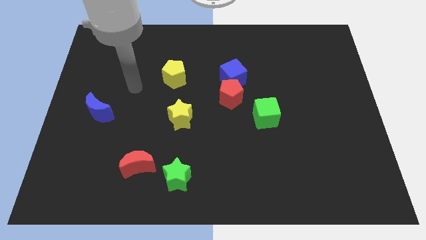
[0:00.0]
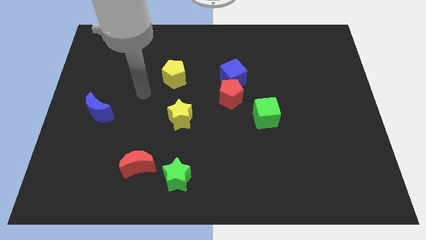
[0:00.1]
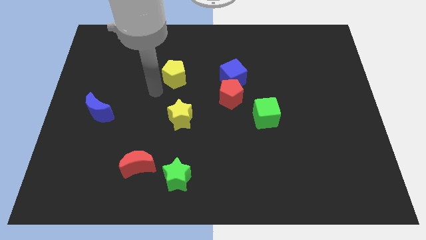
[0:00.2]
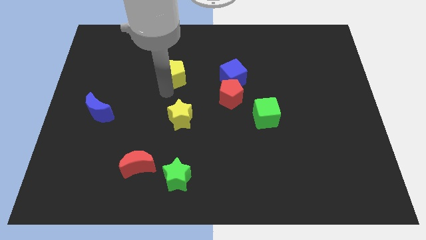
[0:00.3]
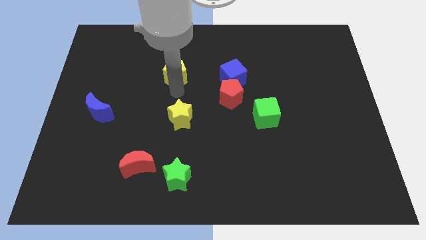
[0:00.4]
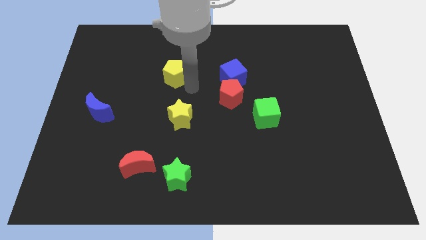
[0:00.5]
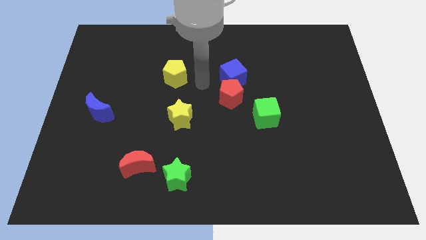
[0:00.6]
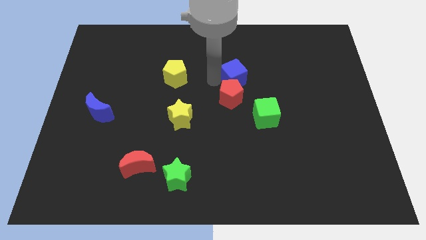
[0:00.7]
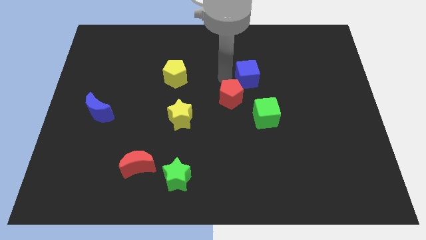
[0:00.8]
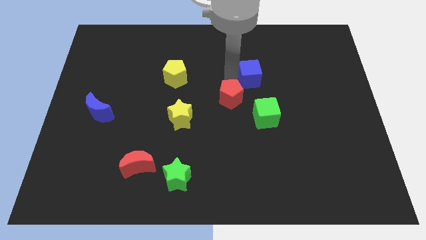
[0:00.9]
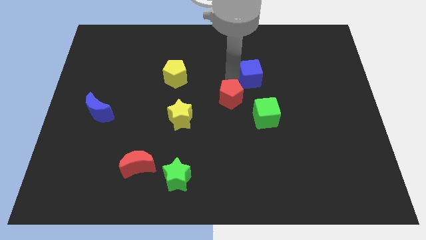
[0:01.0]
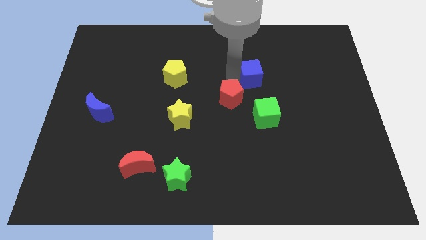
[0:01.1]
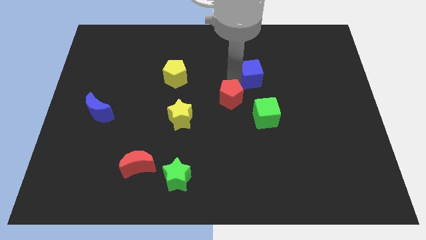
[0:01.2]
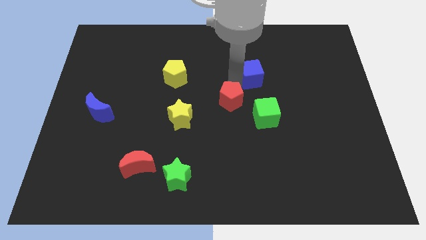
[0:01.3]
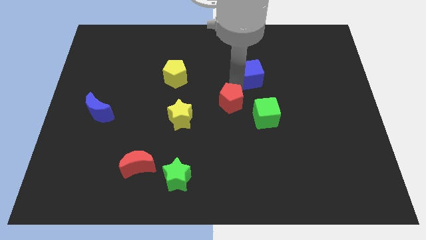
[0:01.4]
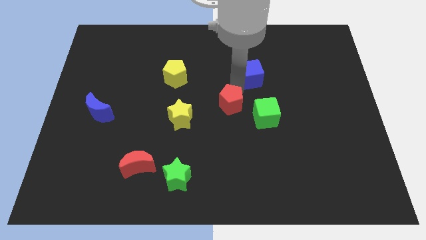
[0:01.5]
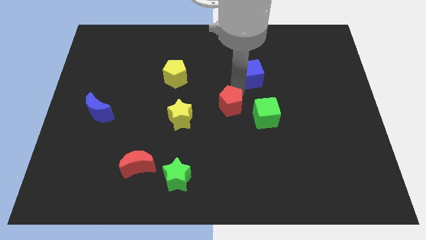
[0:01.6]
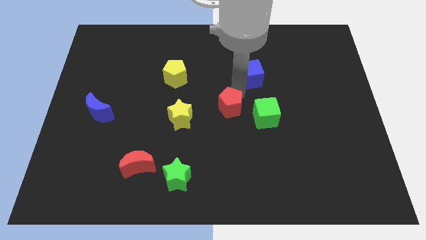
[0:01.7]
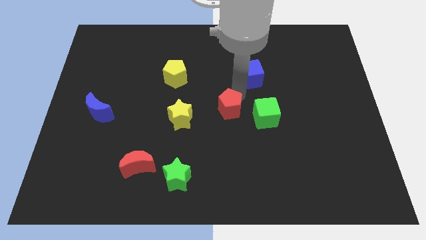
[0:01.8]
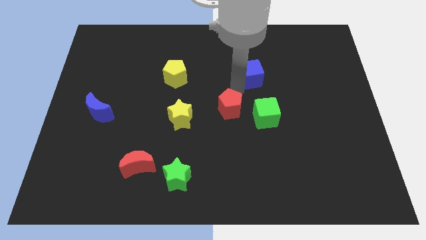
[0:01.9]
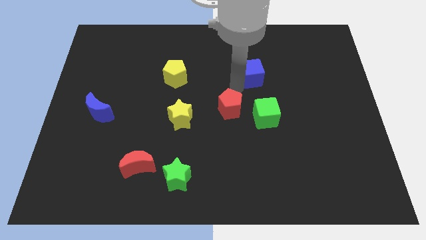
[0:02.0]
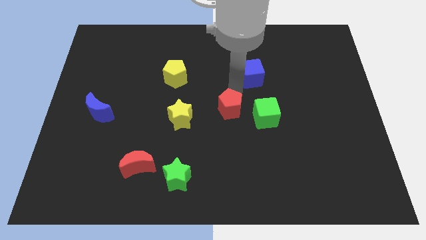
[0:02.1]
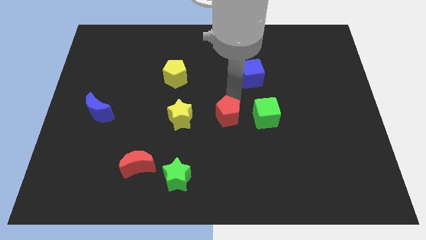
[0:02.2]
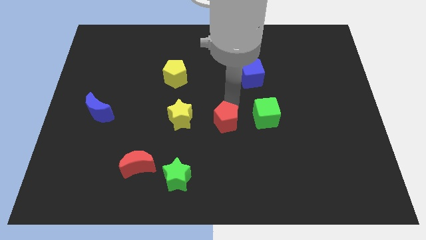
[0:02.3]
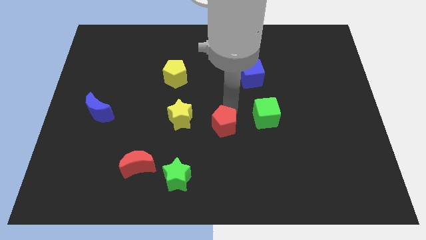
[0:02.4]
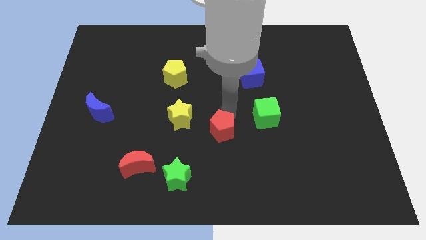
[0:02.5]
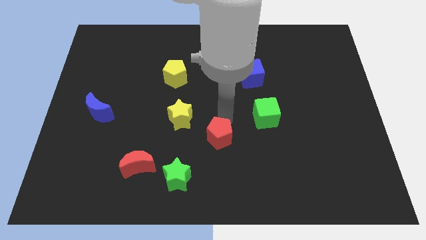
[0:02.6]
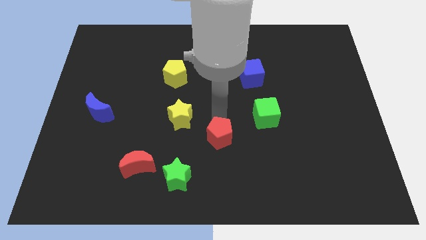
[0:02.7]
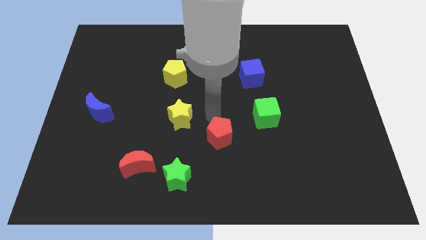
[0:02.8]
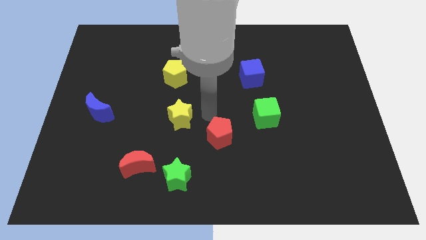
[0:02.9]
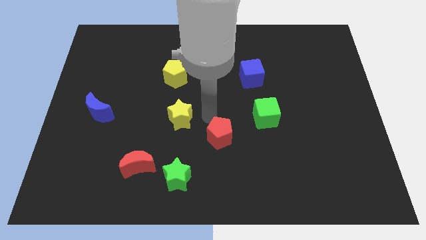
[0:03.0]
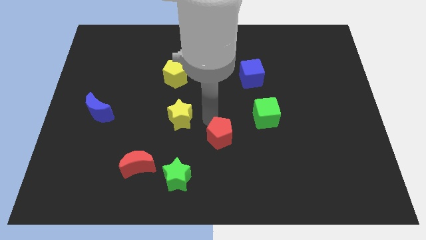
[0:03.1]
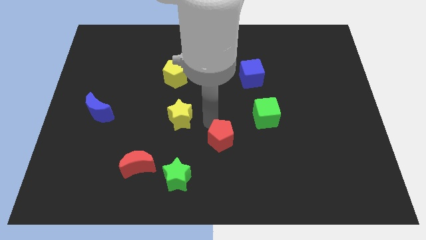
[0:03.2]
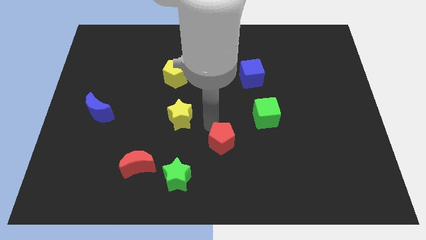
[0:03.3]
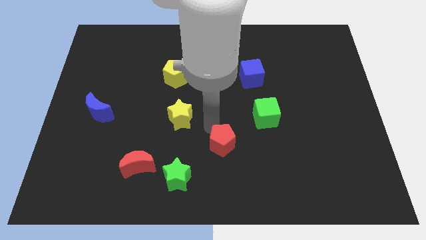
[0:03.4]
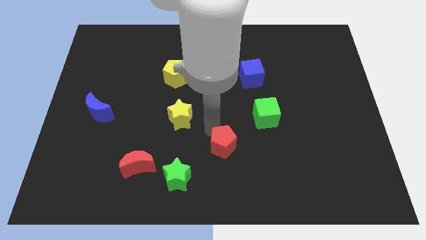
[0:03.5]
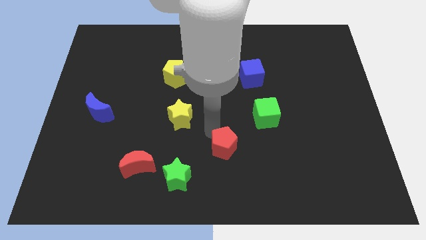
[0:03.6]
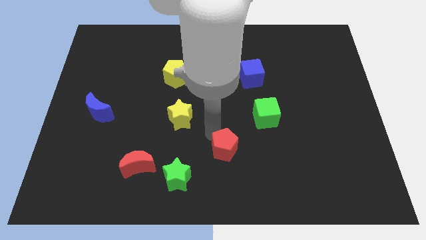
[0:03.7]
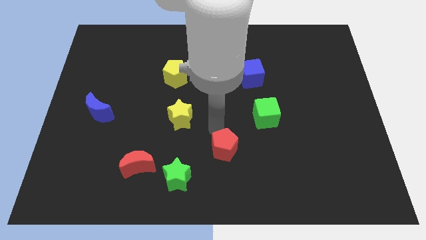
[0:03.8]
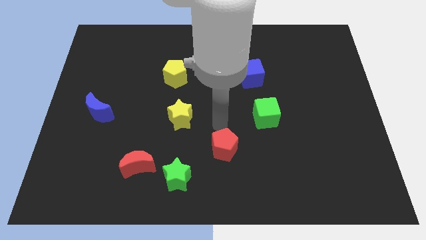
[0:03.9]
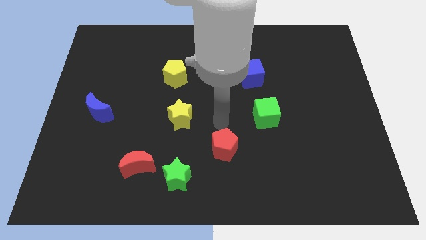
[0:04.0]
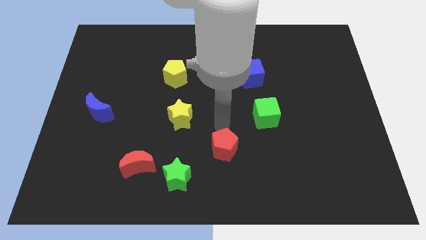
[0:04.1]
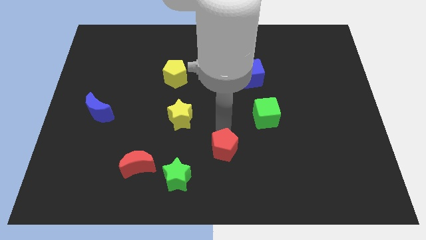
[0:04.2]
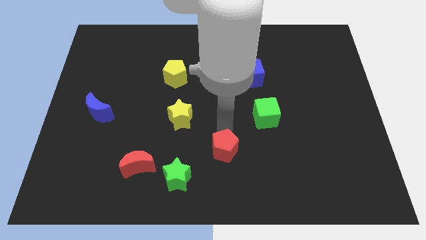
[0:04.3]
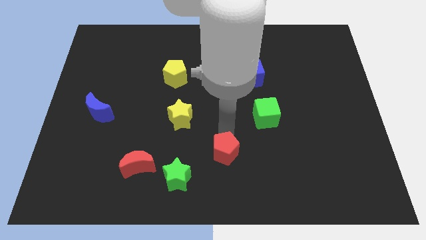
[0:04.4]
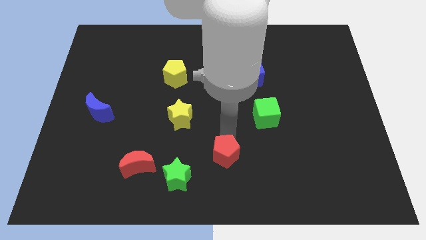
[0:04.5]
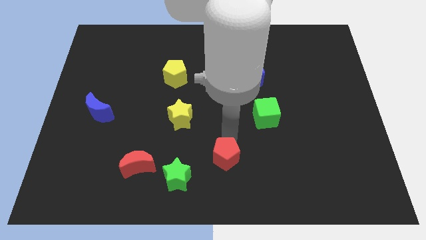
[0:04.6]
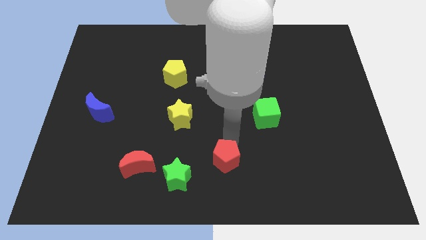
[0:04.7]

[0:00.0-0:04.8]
put the red pentagon right of the green star

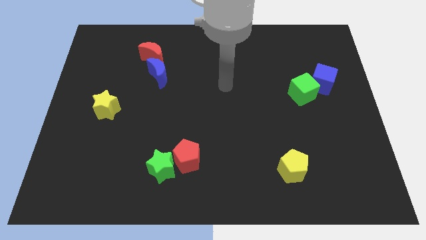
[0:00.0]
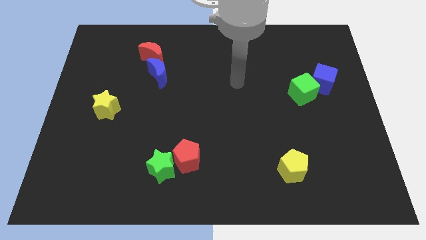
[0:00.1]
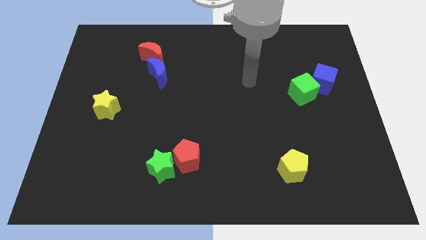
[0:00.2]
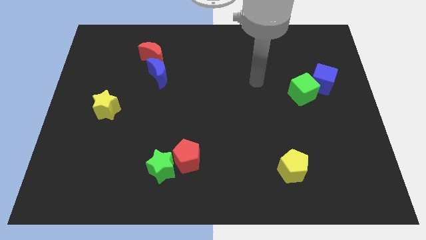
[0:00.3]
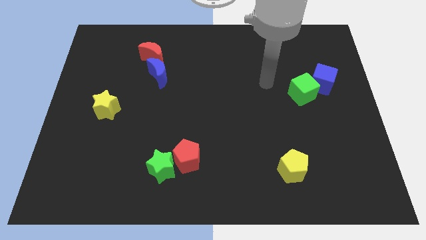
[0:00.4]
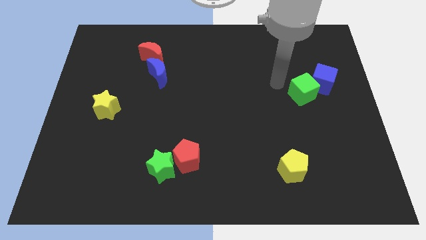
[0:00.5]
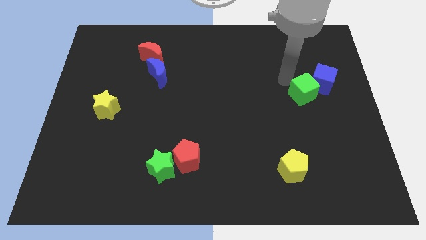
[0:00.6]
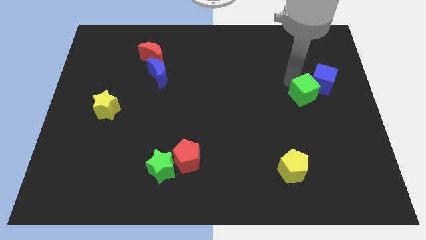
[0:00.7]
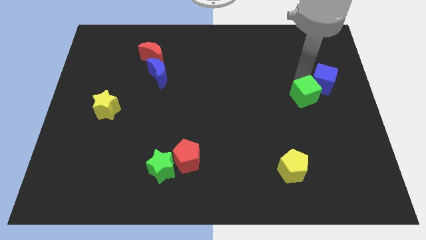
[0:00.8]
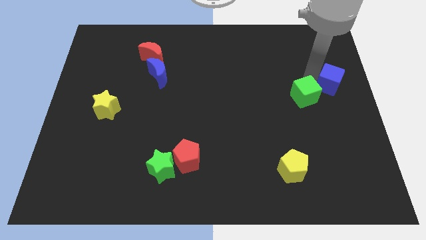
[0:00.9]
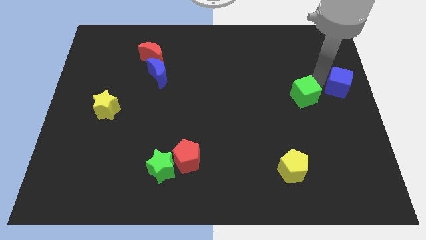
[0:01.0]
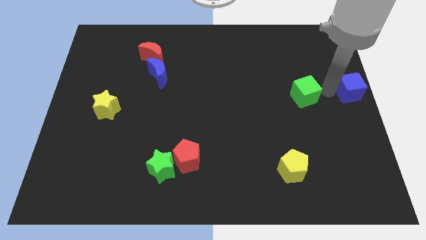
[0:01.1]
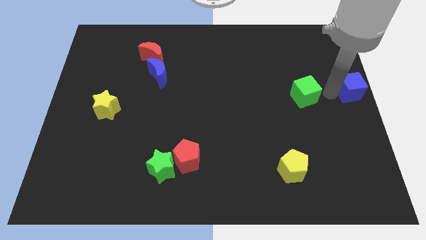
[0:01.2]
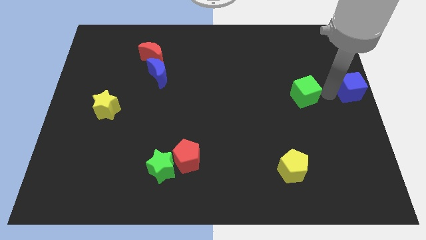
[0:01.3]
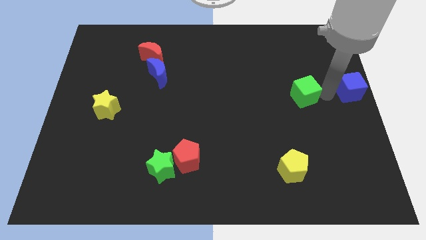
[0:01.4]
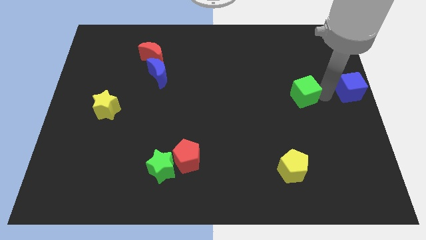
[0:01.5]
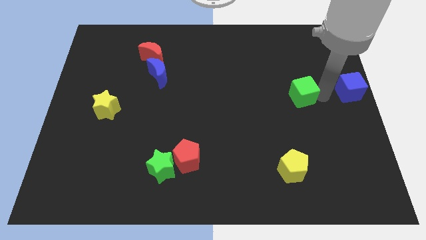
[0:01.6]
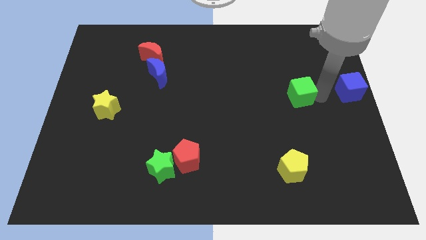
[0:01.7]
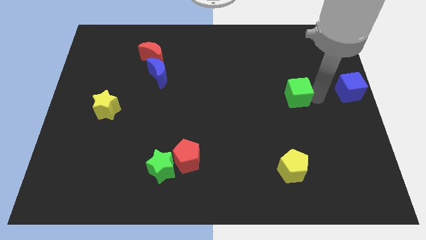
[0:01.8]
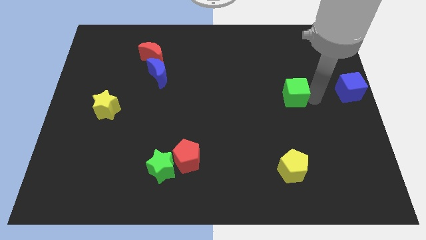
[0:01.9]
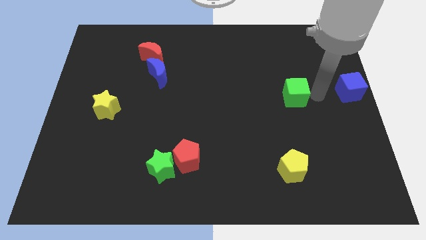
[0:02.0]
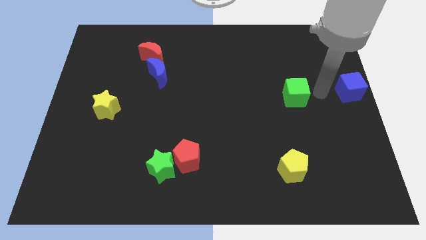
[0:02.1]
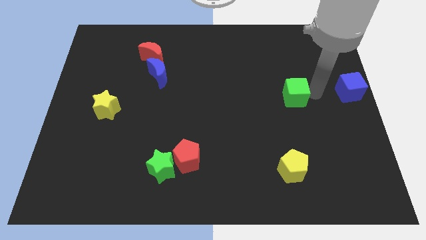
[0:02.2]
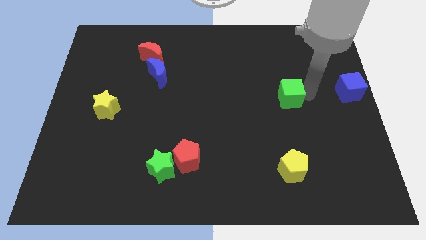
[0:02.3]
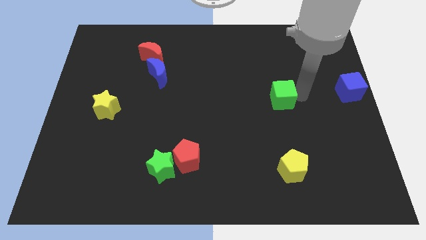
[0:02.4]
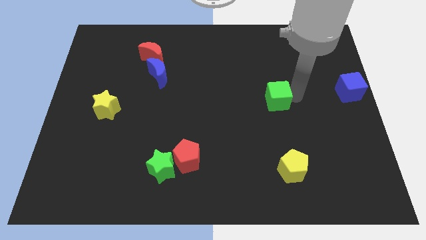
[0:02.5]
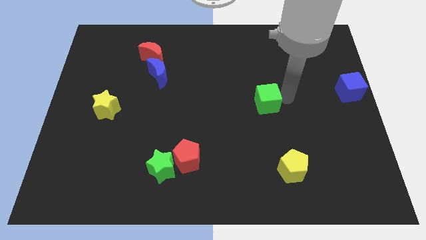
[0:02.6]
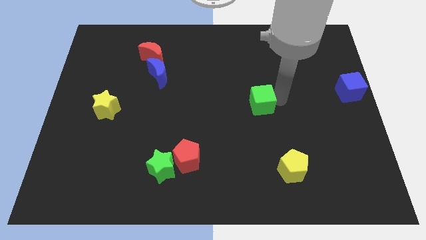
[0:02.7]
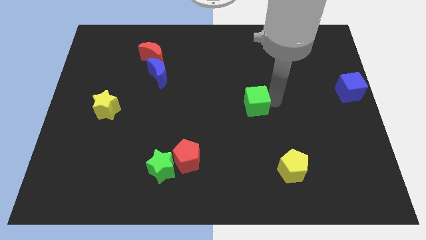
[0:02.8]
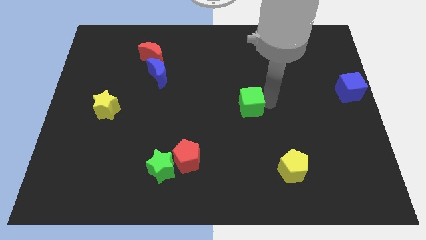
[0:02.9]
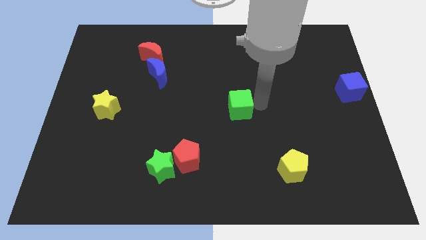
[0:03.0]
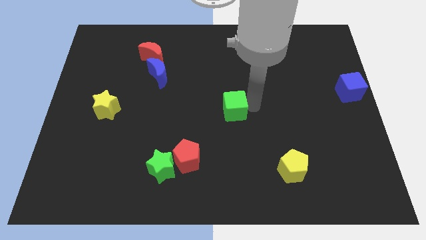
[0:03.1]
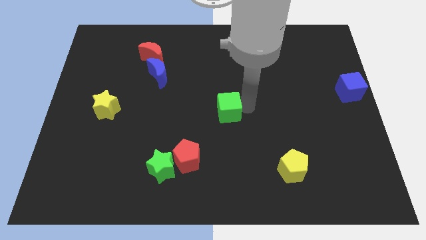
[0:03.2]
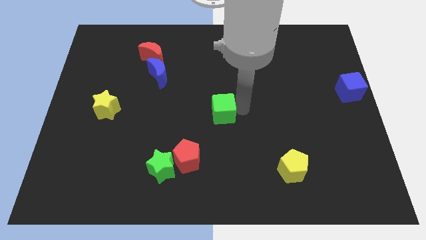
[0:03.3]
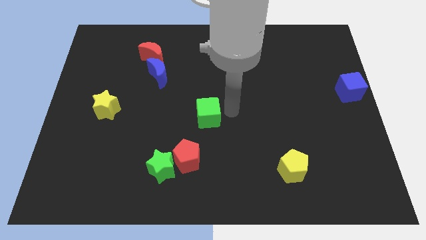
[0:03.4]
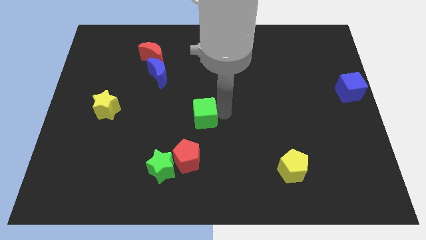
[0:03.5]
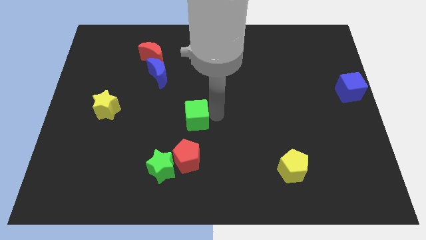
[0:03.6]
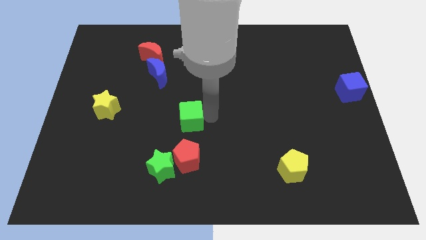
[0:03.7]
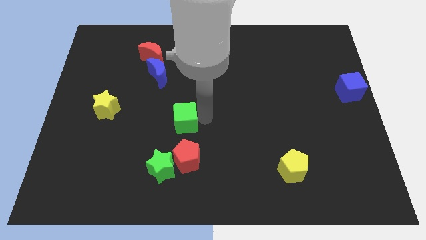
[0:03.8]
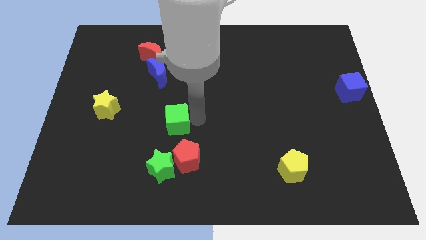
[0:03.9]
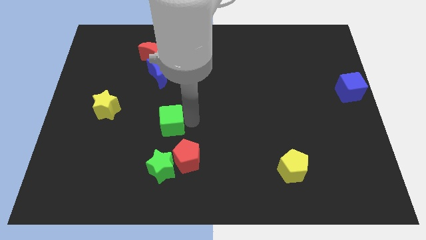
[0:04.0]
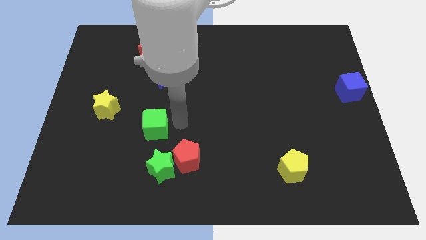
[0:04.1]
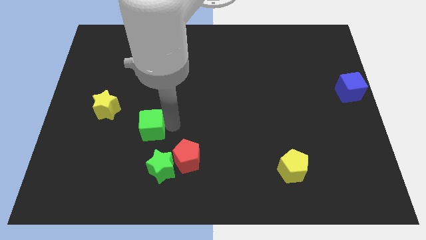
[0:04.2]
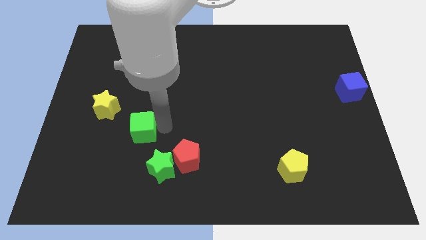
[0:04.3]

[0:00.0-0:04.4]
move the green cube to the bottom right of the yellow star
